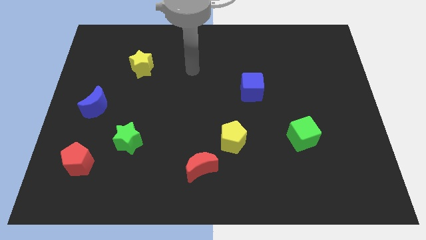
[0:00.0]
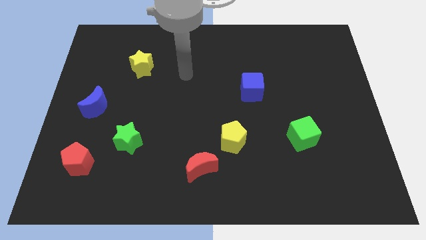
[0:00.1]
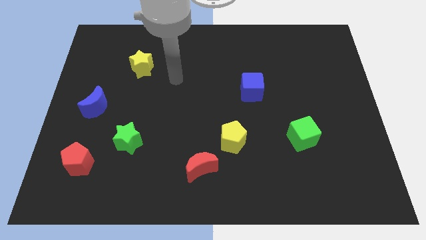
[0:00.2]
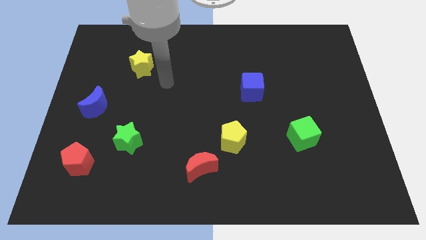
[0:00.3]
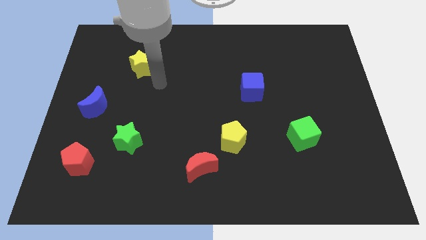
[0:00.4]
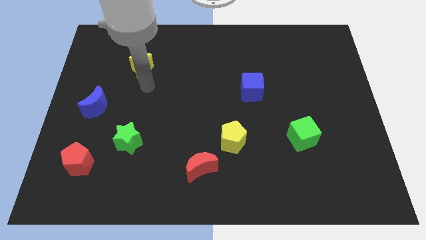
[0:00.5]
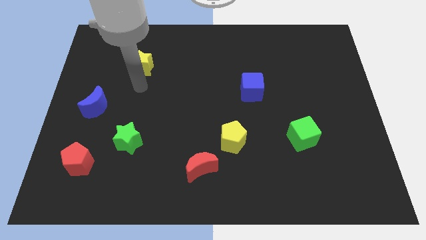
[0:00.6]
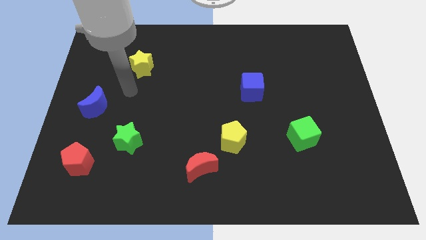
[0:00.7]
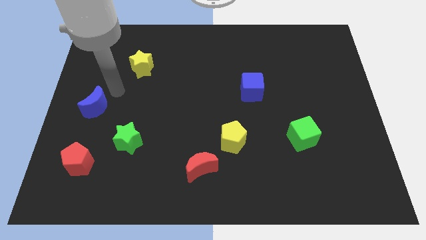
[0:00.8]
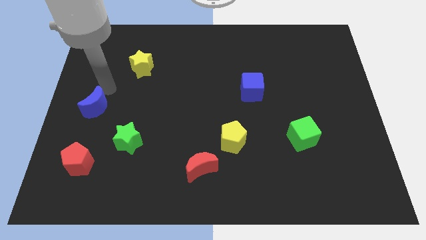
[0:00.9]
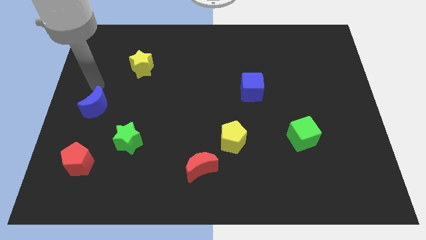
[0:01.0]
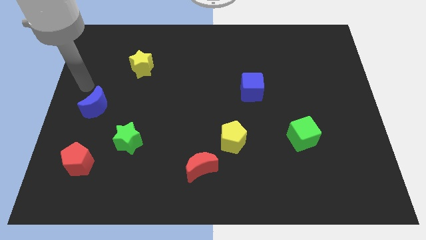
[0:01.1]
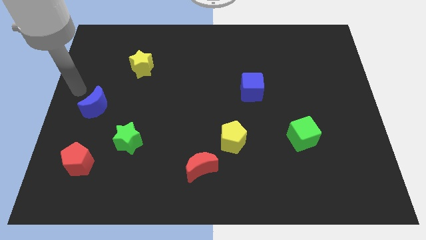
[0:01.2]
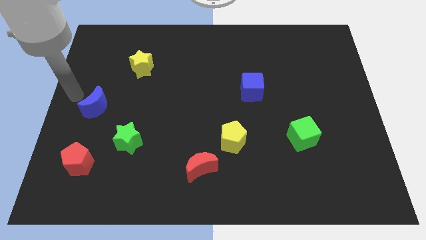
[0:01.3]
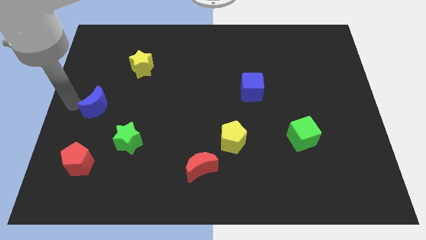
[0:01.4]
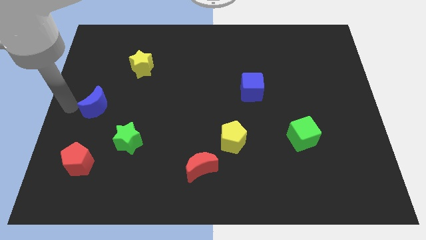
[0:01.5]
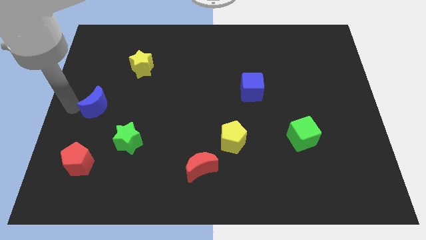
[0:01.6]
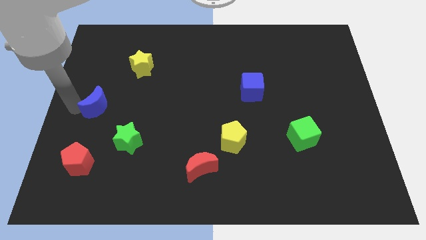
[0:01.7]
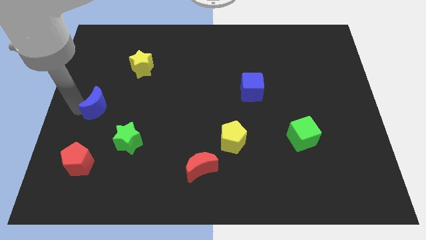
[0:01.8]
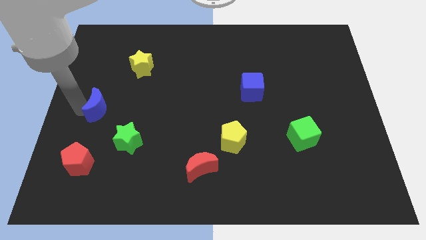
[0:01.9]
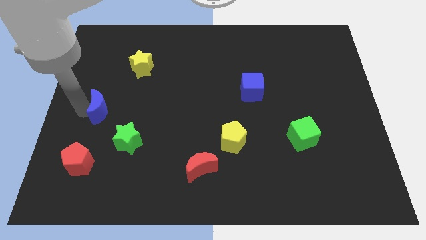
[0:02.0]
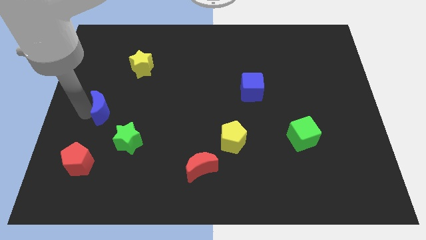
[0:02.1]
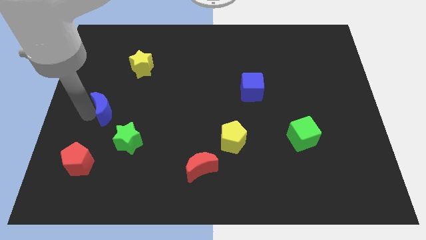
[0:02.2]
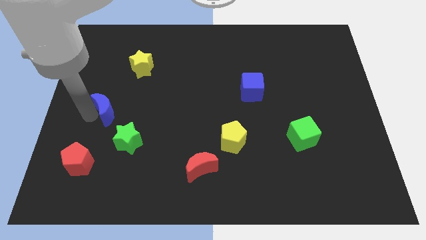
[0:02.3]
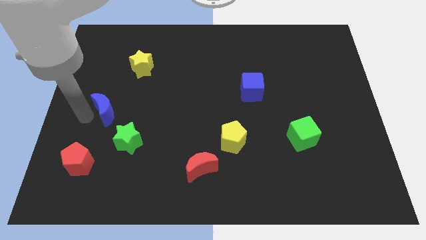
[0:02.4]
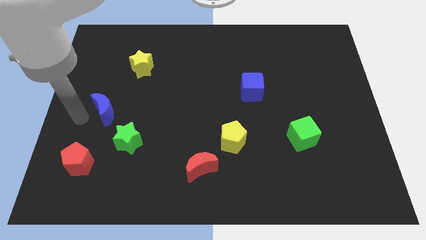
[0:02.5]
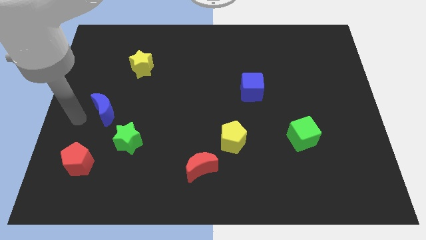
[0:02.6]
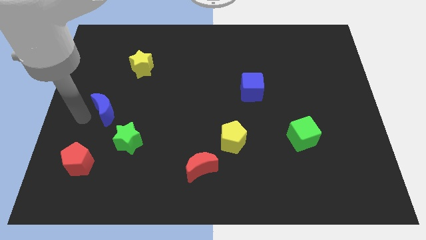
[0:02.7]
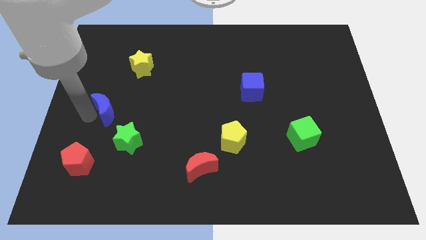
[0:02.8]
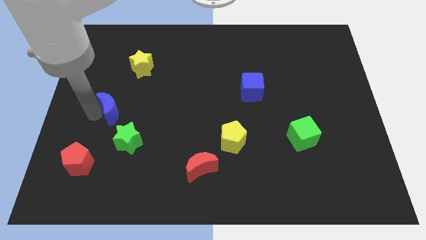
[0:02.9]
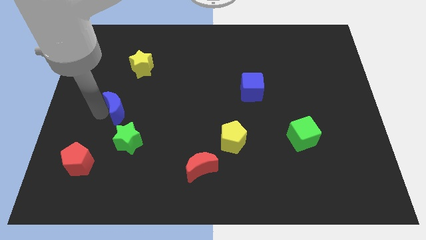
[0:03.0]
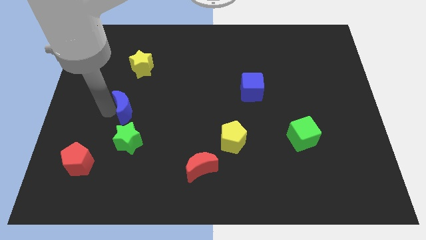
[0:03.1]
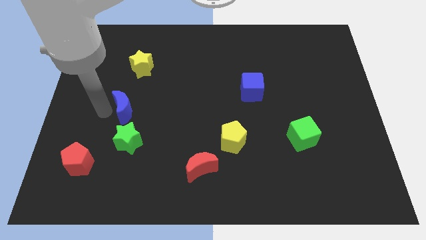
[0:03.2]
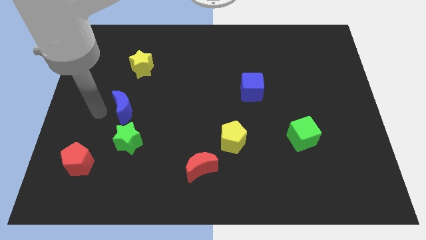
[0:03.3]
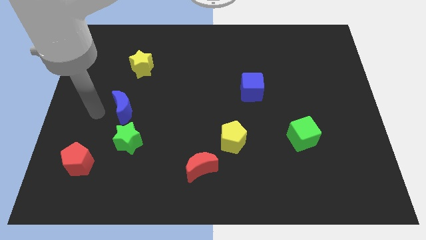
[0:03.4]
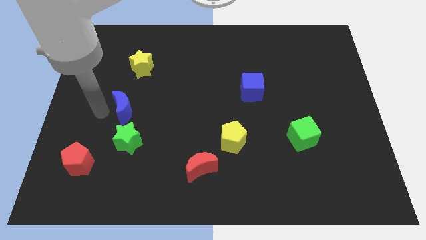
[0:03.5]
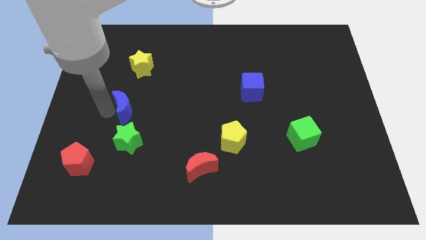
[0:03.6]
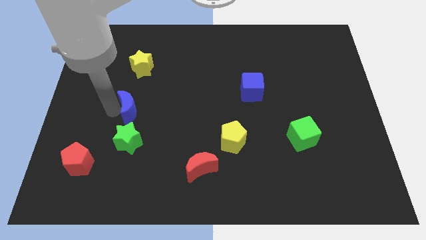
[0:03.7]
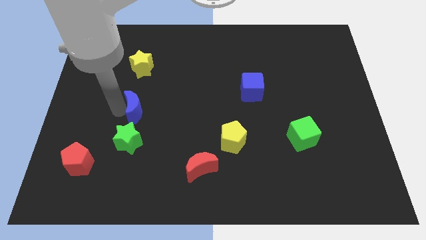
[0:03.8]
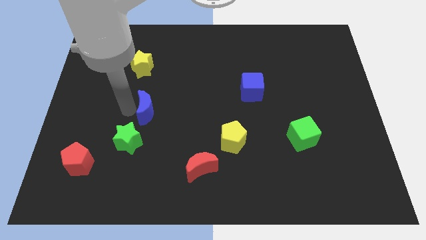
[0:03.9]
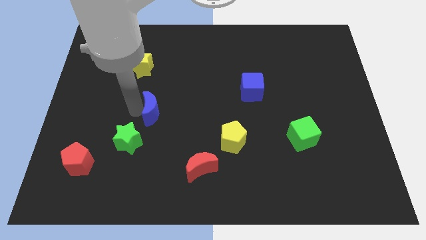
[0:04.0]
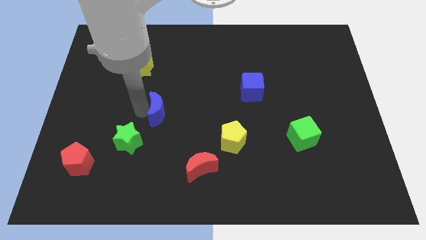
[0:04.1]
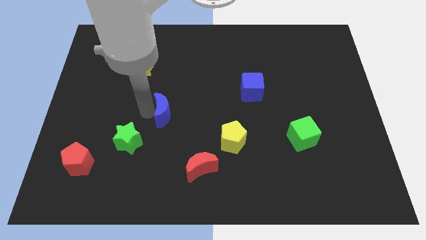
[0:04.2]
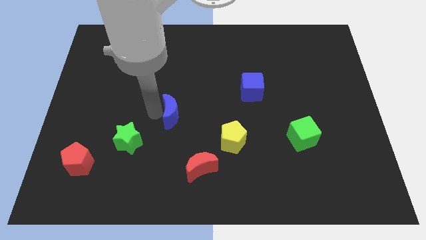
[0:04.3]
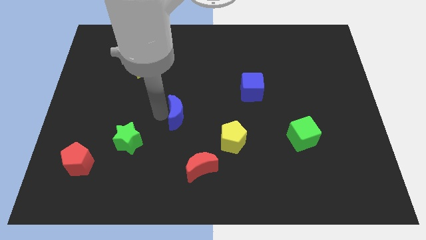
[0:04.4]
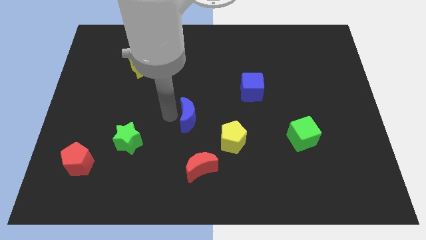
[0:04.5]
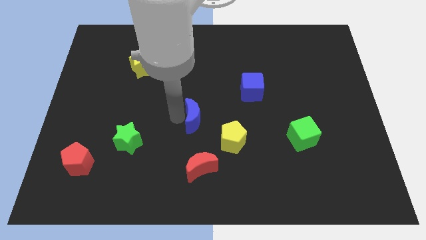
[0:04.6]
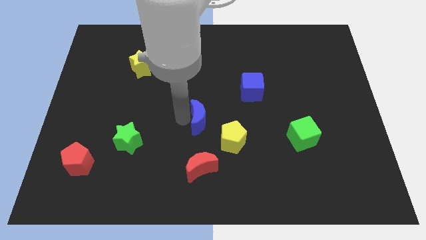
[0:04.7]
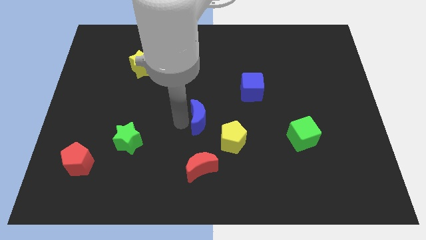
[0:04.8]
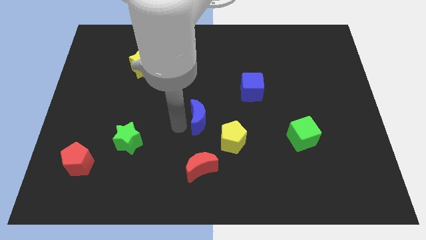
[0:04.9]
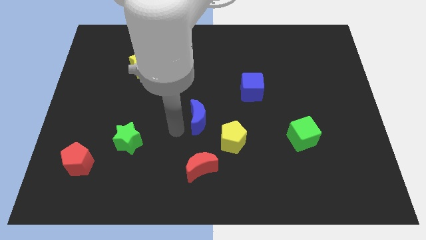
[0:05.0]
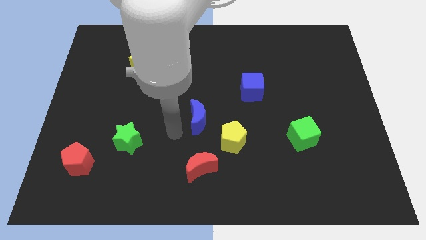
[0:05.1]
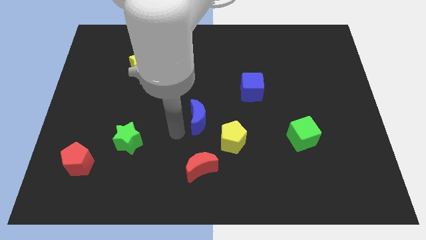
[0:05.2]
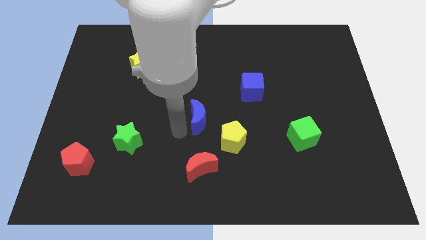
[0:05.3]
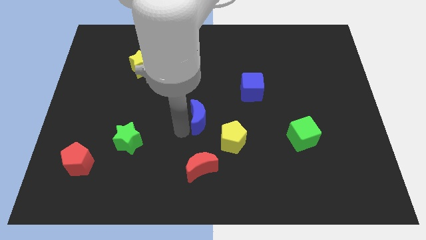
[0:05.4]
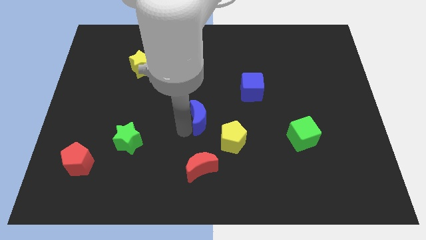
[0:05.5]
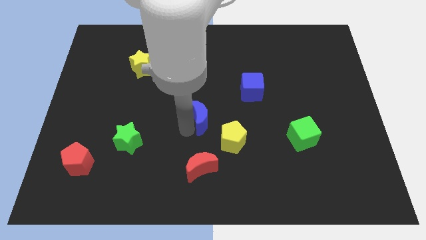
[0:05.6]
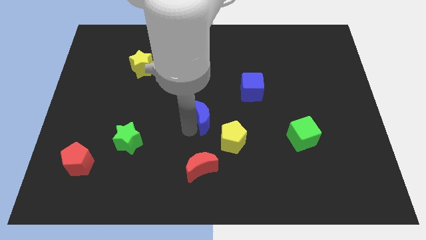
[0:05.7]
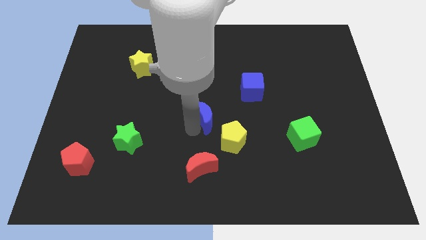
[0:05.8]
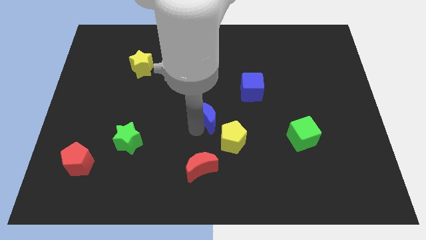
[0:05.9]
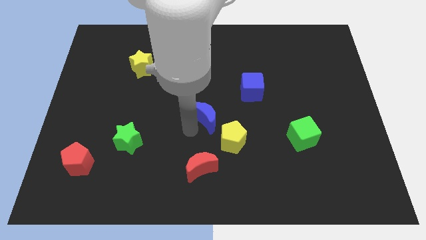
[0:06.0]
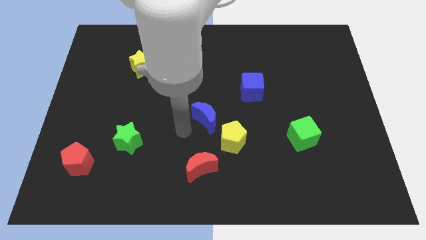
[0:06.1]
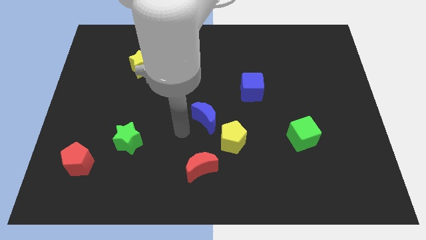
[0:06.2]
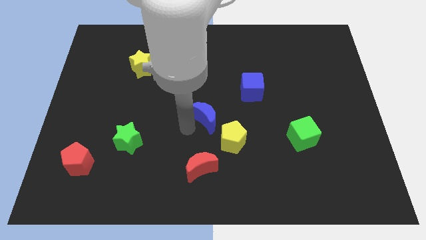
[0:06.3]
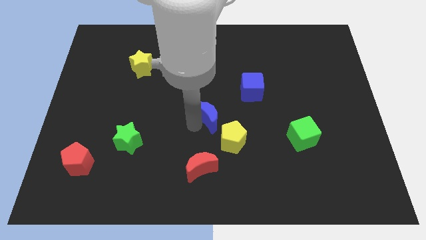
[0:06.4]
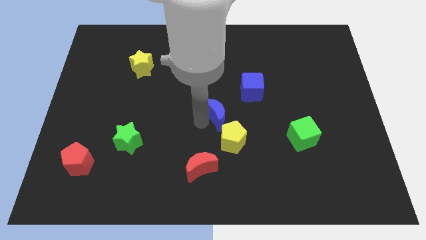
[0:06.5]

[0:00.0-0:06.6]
slide the blue moon to the bottom left side of the blue cube
